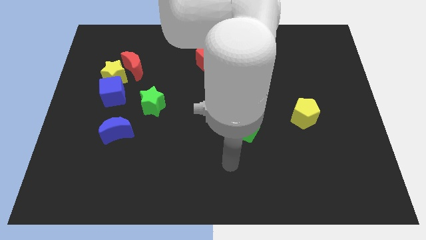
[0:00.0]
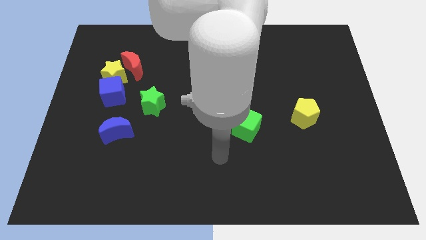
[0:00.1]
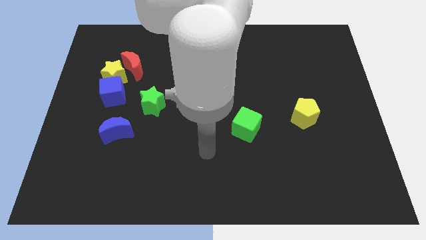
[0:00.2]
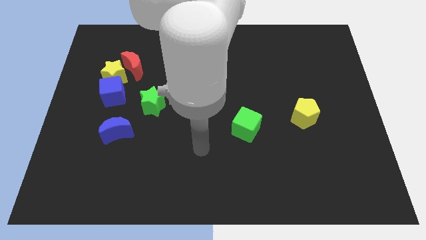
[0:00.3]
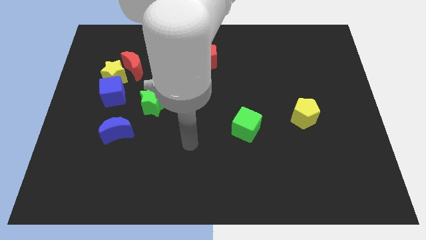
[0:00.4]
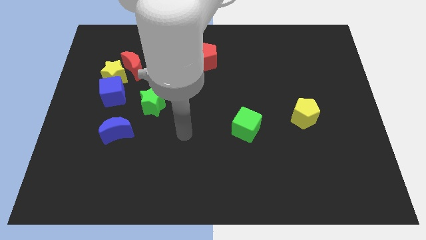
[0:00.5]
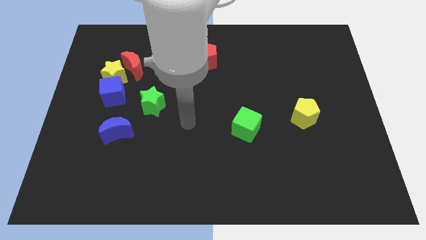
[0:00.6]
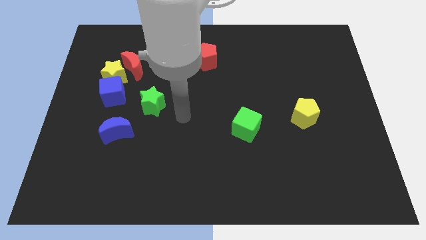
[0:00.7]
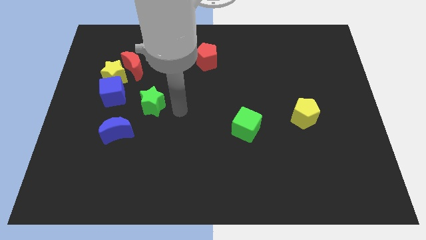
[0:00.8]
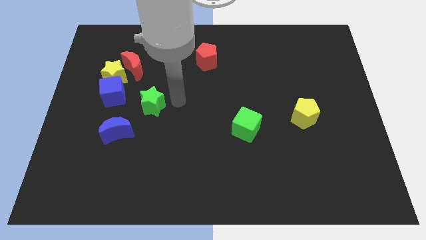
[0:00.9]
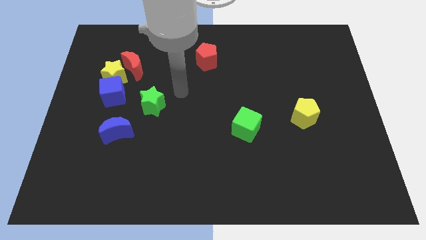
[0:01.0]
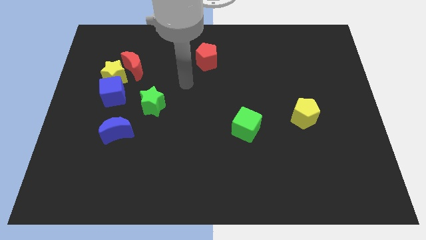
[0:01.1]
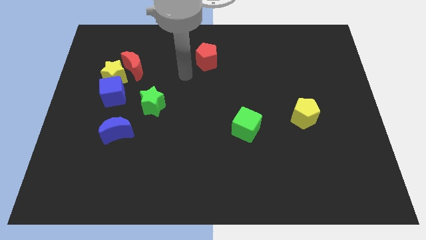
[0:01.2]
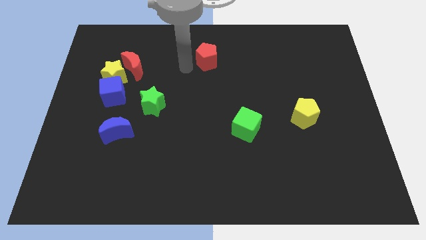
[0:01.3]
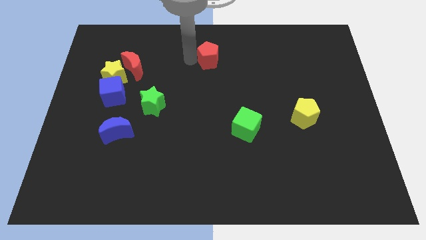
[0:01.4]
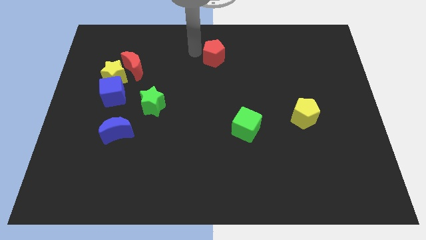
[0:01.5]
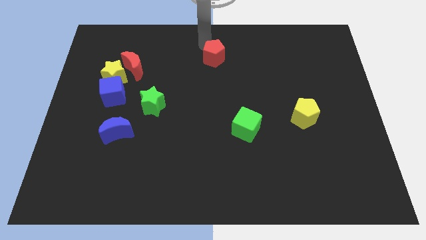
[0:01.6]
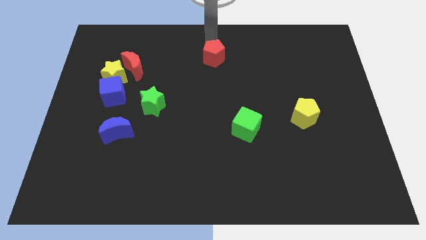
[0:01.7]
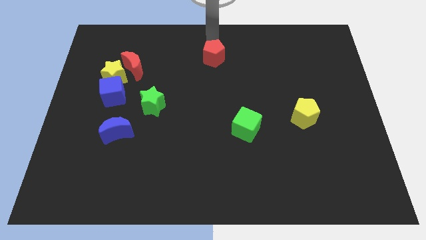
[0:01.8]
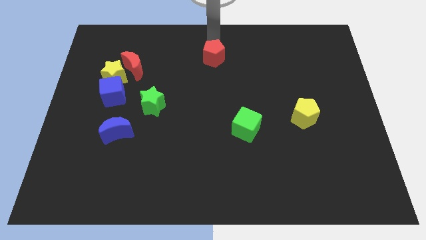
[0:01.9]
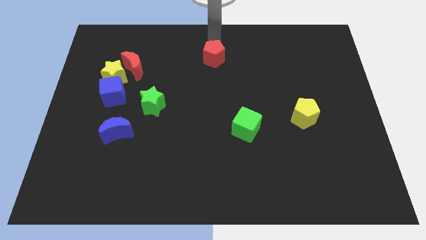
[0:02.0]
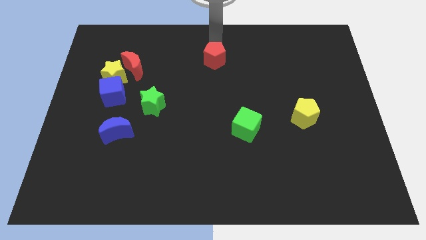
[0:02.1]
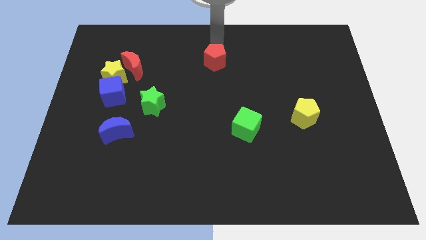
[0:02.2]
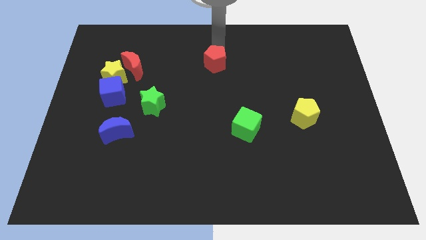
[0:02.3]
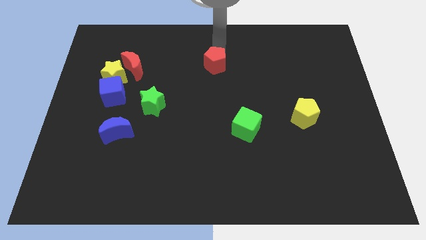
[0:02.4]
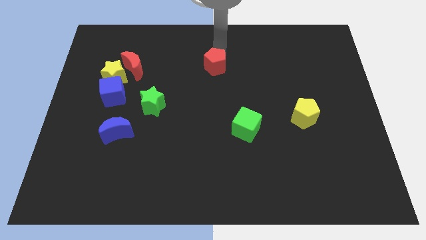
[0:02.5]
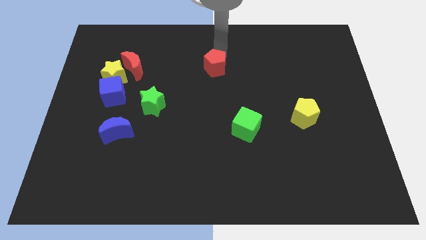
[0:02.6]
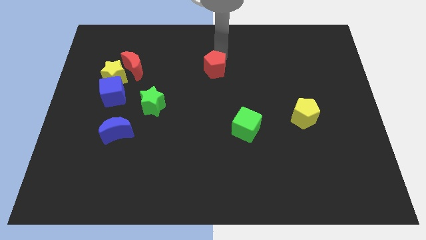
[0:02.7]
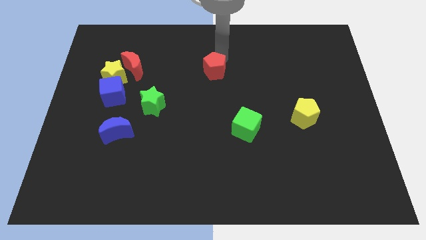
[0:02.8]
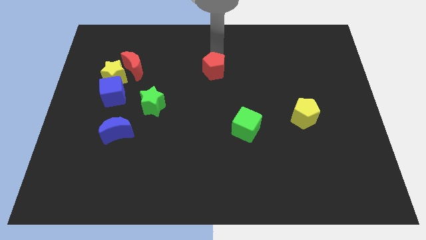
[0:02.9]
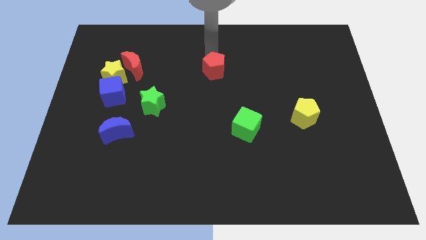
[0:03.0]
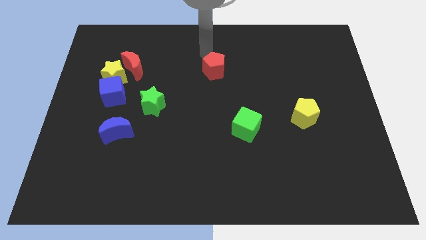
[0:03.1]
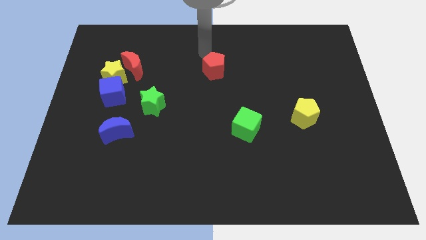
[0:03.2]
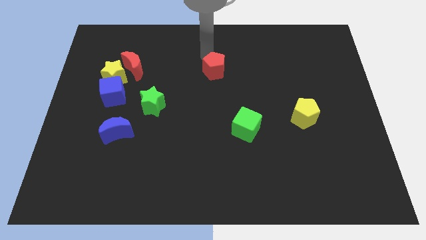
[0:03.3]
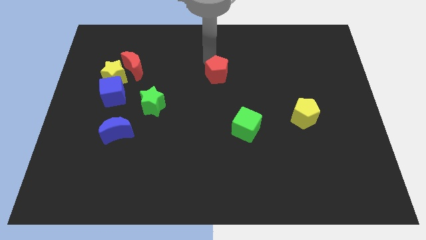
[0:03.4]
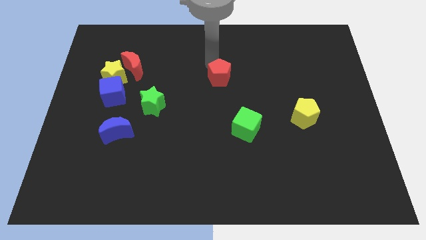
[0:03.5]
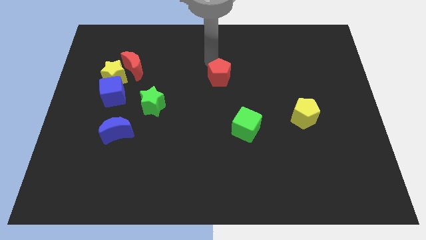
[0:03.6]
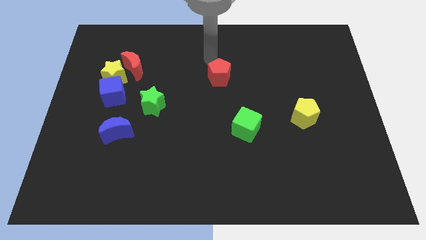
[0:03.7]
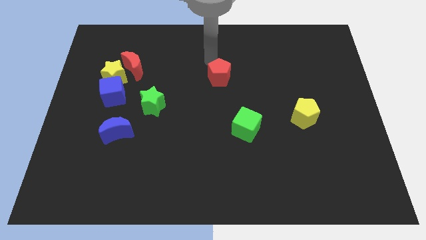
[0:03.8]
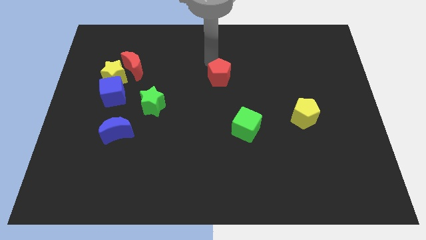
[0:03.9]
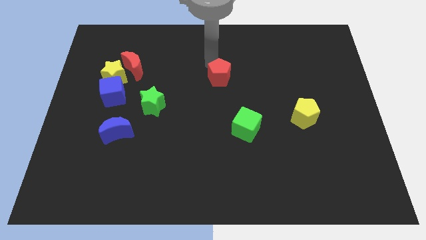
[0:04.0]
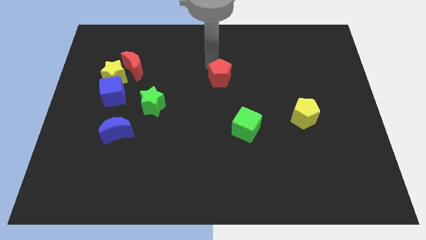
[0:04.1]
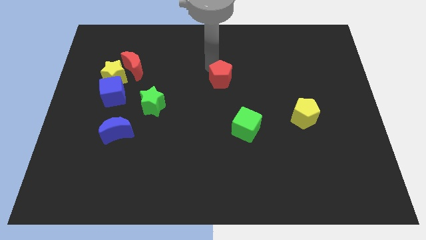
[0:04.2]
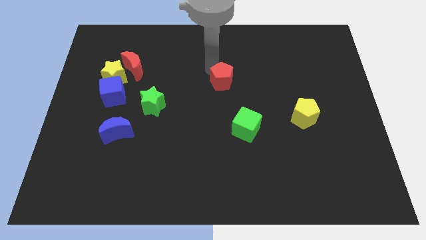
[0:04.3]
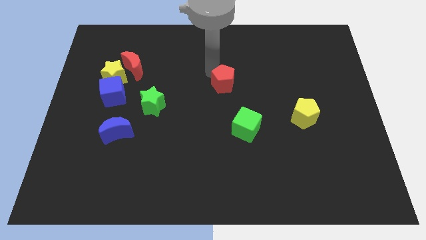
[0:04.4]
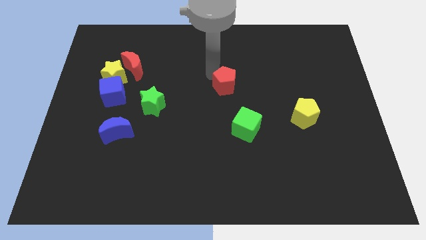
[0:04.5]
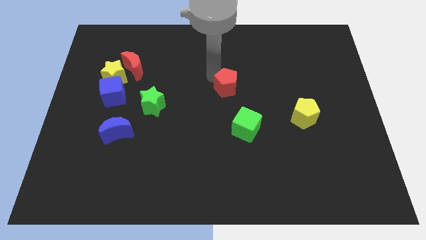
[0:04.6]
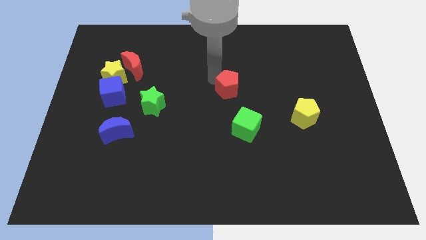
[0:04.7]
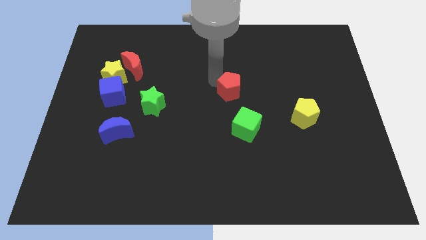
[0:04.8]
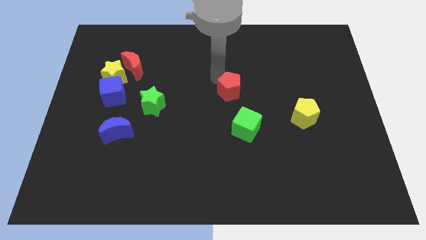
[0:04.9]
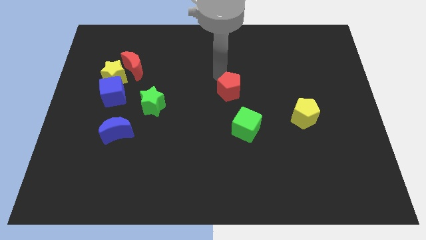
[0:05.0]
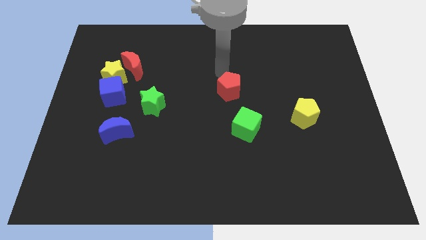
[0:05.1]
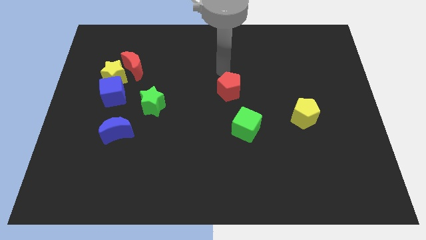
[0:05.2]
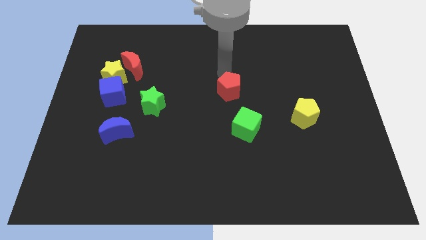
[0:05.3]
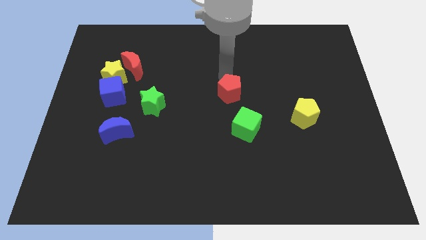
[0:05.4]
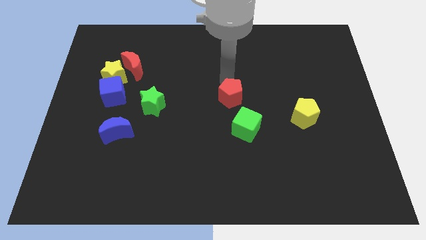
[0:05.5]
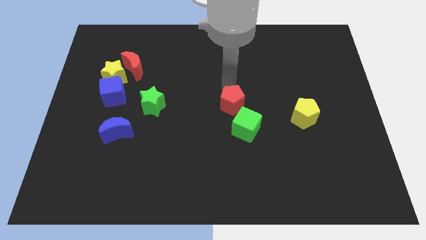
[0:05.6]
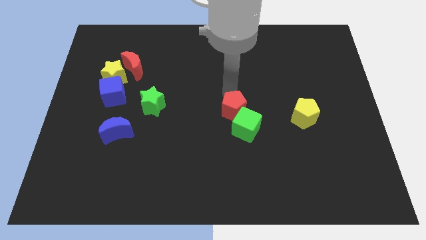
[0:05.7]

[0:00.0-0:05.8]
slide the red pentagon towards the green cube

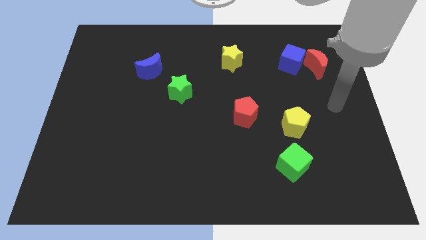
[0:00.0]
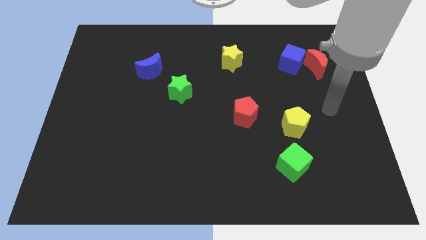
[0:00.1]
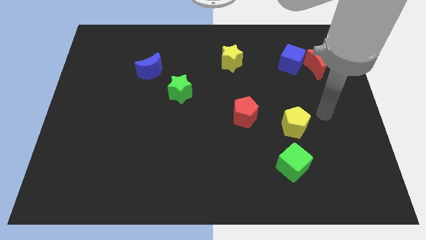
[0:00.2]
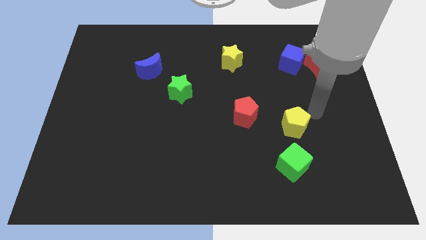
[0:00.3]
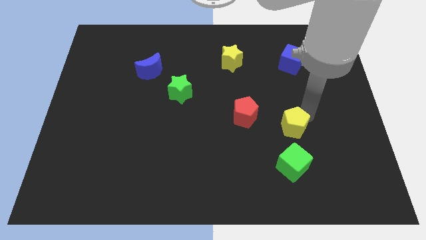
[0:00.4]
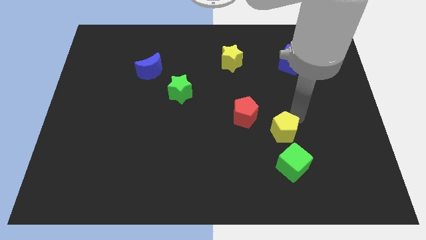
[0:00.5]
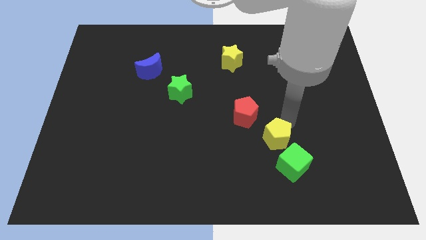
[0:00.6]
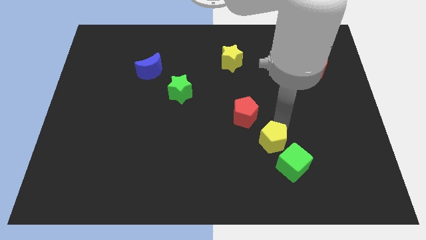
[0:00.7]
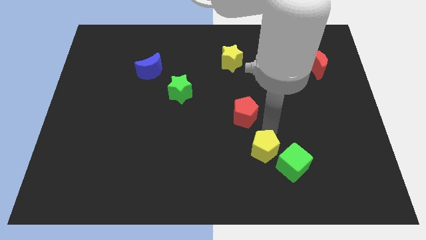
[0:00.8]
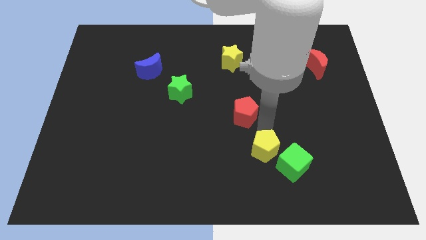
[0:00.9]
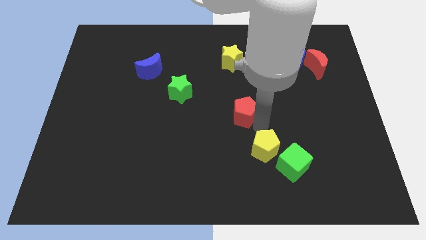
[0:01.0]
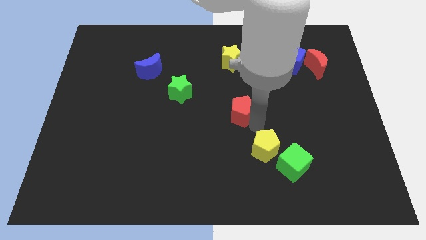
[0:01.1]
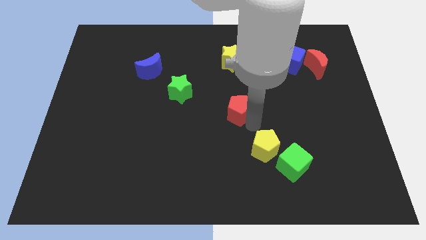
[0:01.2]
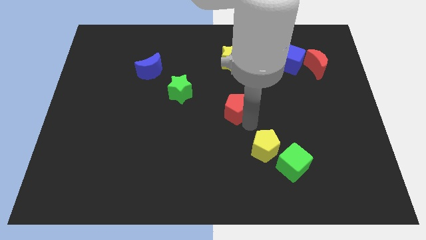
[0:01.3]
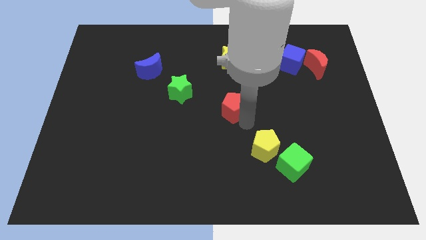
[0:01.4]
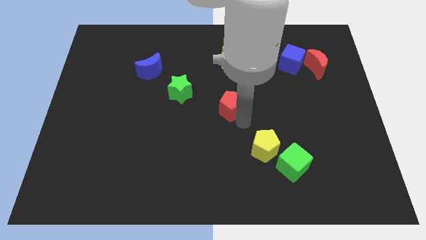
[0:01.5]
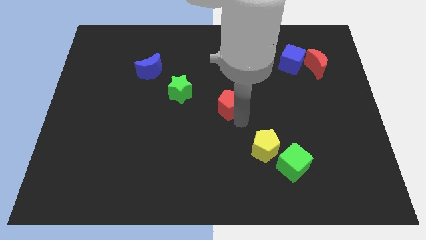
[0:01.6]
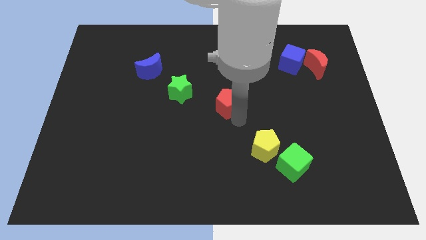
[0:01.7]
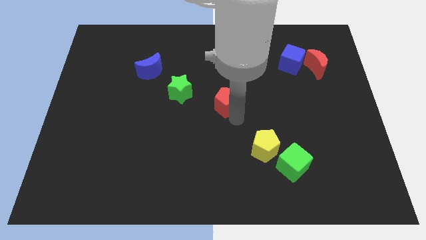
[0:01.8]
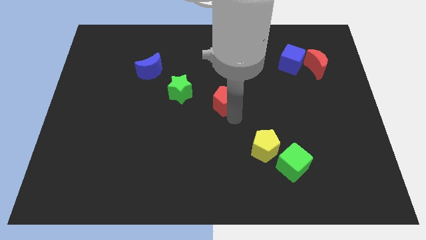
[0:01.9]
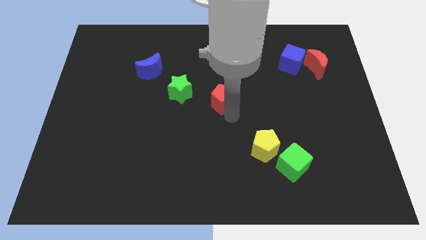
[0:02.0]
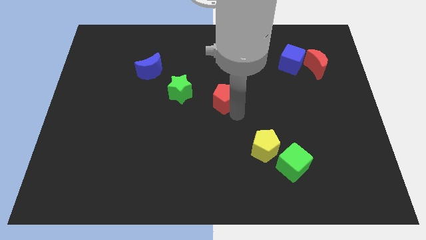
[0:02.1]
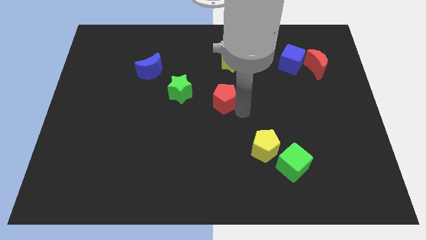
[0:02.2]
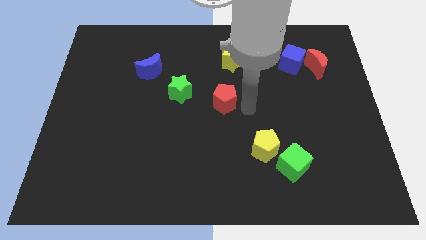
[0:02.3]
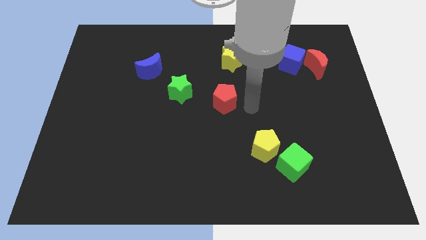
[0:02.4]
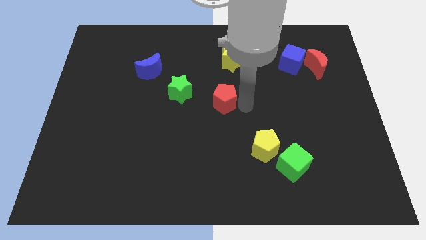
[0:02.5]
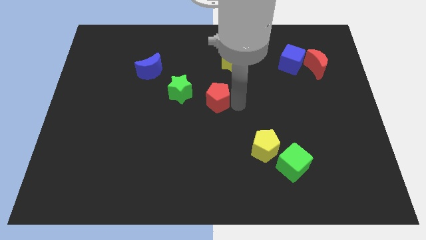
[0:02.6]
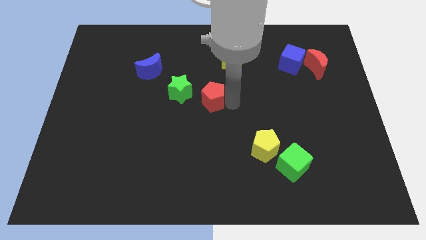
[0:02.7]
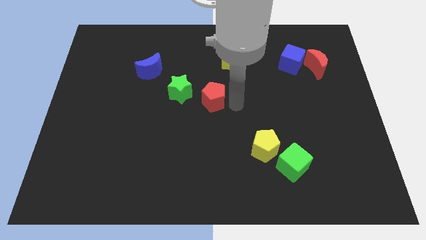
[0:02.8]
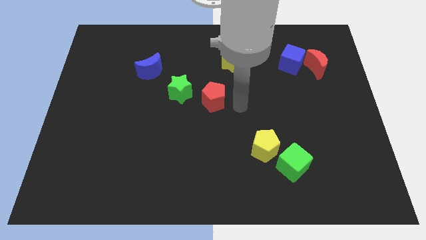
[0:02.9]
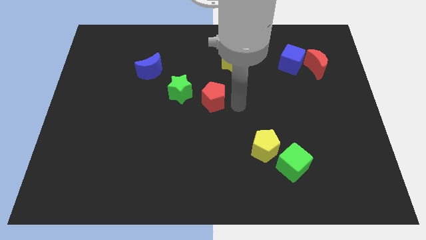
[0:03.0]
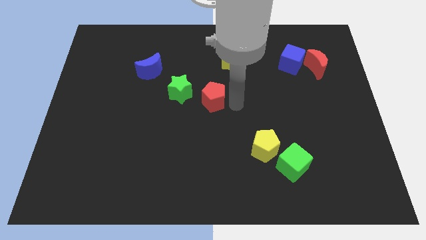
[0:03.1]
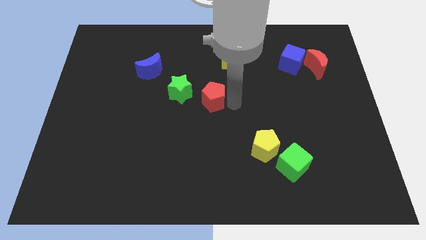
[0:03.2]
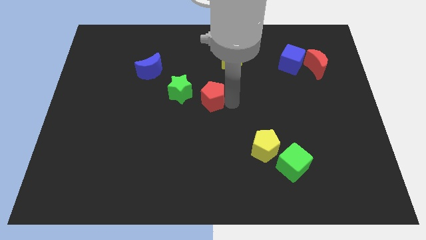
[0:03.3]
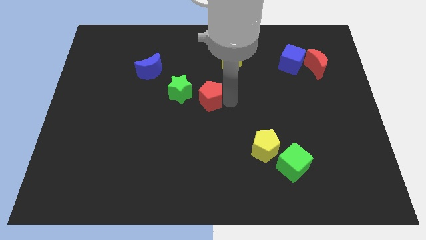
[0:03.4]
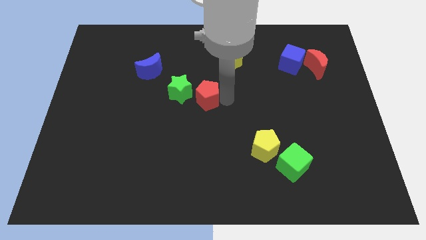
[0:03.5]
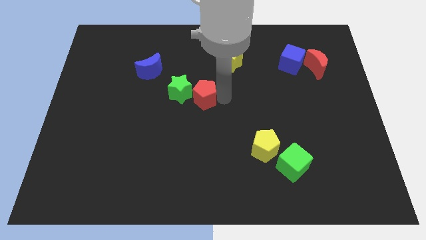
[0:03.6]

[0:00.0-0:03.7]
move the red pentagon to the green star
